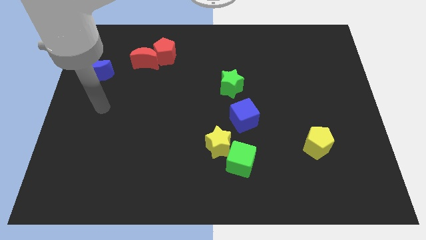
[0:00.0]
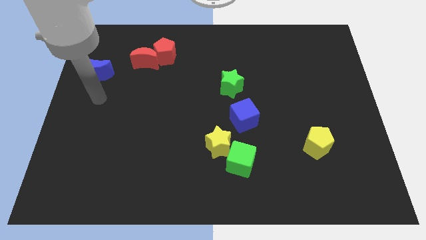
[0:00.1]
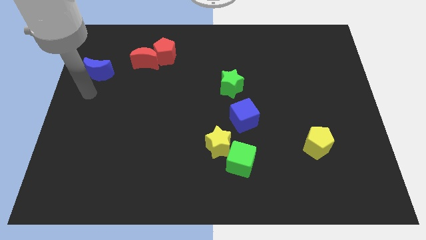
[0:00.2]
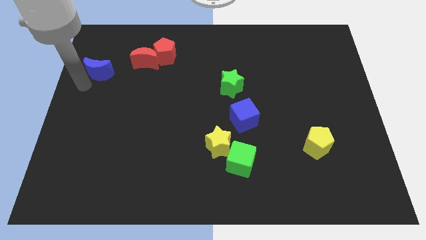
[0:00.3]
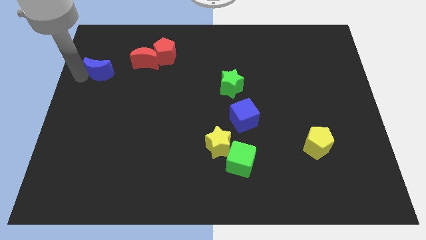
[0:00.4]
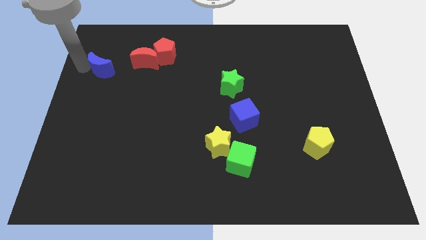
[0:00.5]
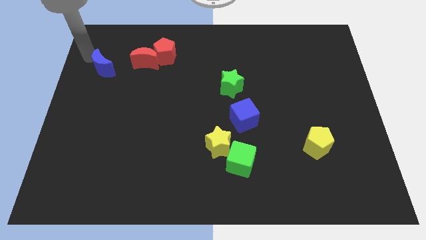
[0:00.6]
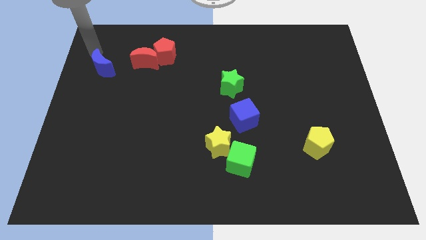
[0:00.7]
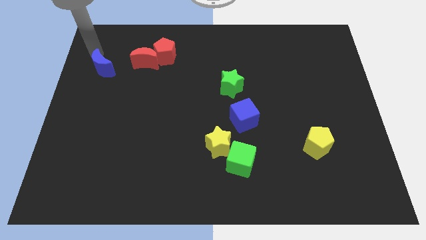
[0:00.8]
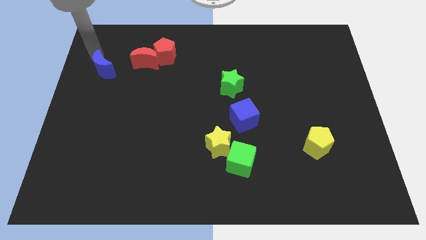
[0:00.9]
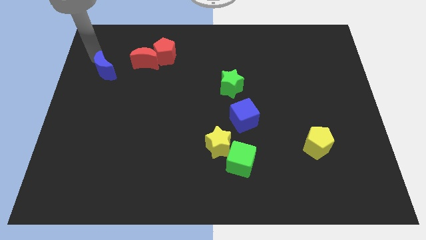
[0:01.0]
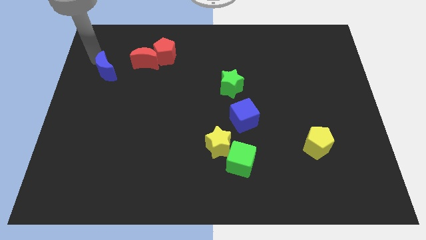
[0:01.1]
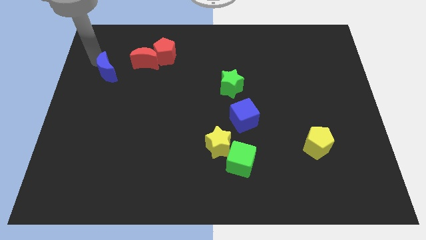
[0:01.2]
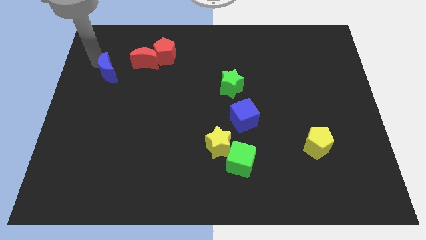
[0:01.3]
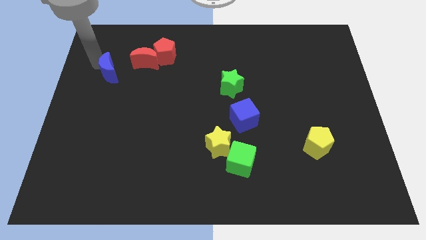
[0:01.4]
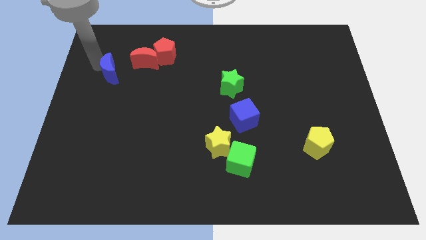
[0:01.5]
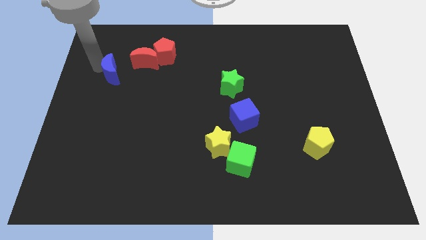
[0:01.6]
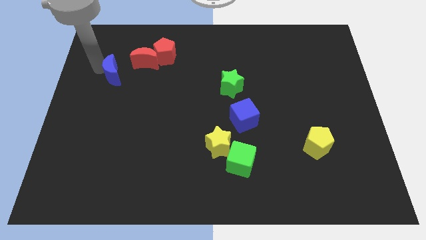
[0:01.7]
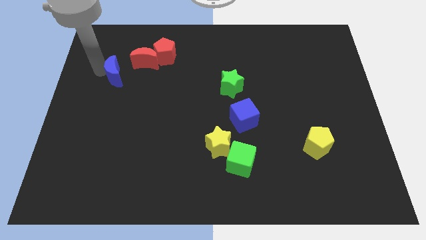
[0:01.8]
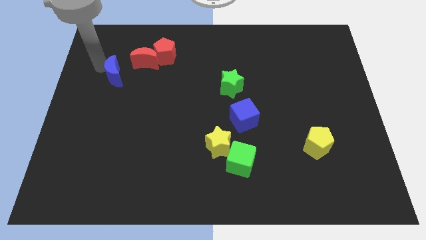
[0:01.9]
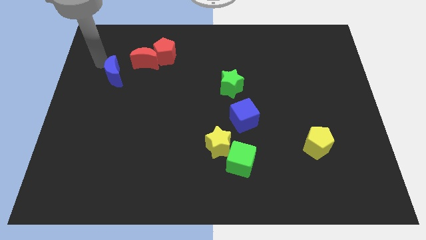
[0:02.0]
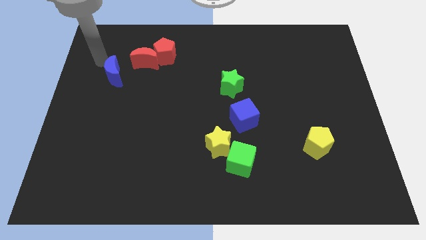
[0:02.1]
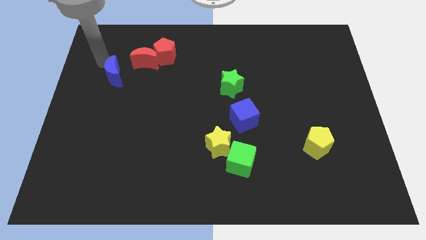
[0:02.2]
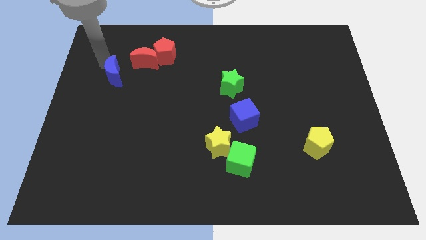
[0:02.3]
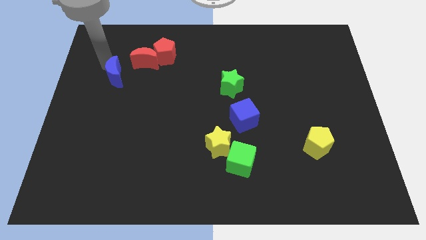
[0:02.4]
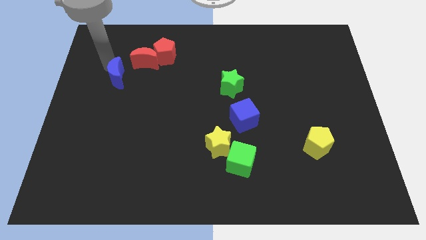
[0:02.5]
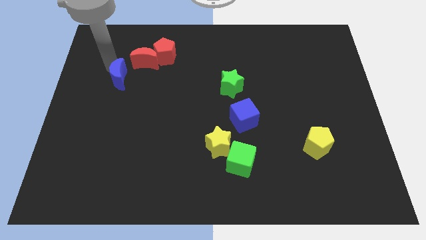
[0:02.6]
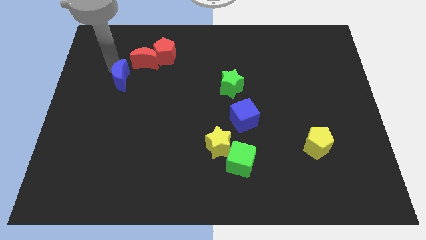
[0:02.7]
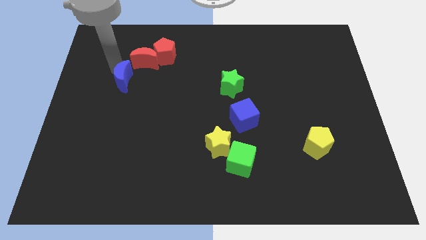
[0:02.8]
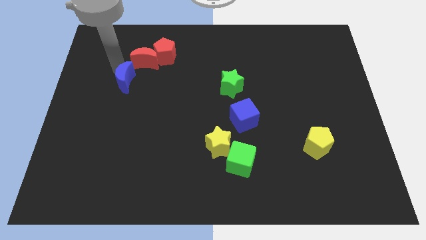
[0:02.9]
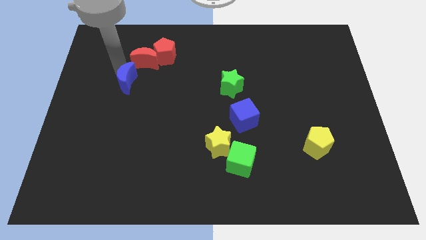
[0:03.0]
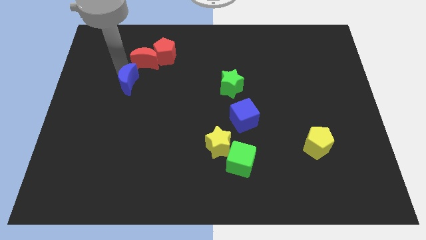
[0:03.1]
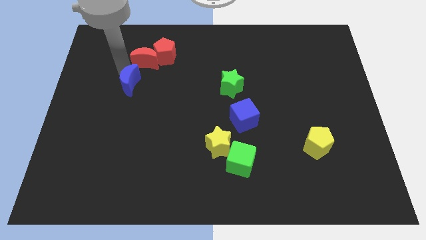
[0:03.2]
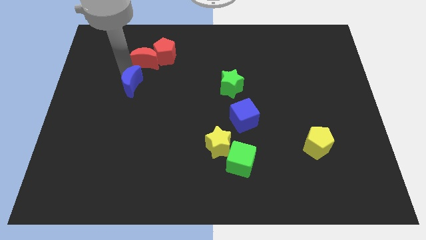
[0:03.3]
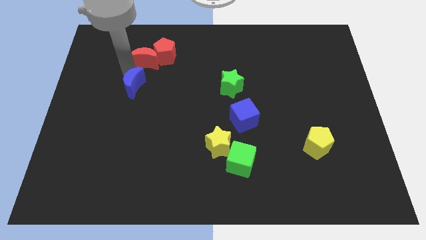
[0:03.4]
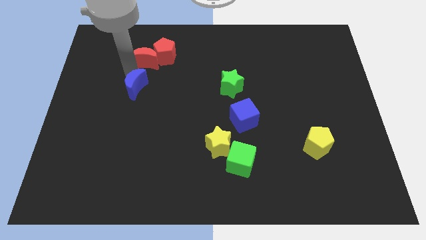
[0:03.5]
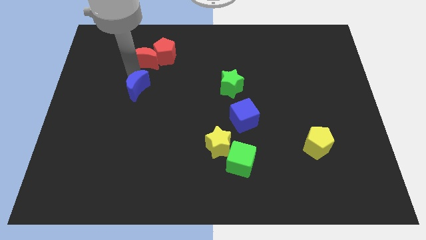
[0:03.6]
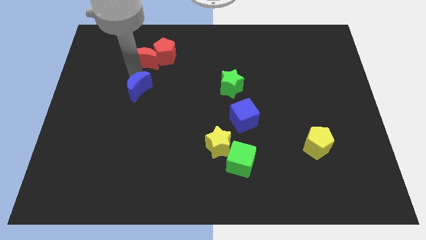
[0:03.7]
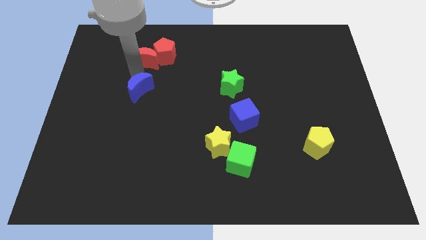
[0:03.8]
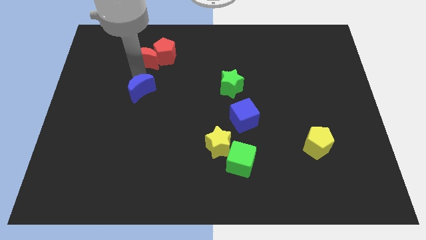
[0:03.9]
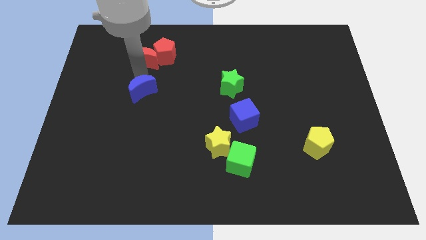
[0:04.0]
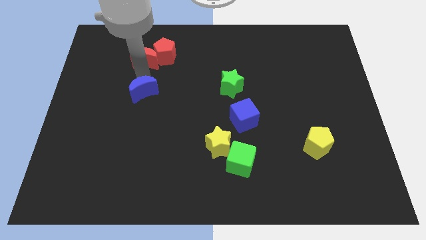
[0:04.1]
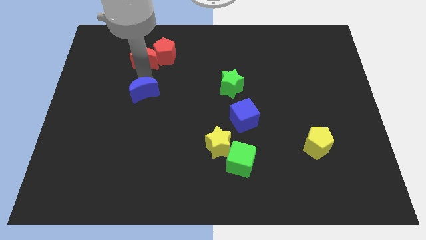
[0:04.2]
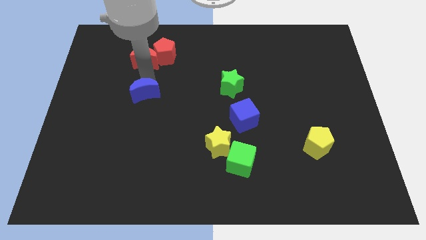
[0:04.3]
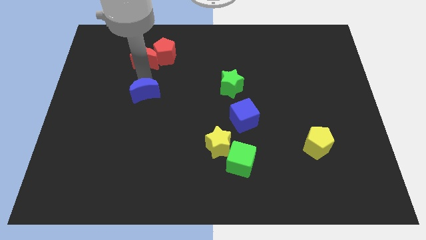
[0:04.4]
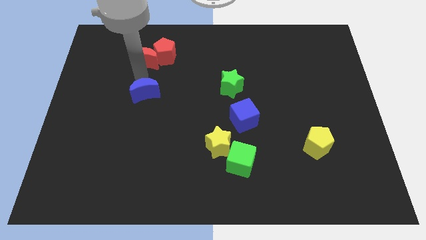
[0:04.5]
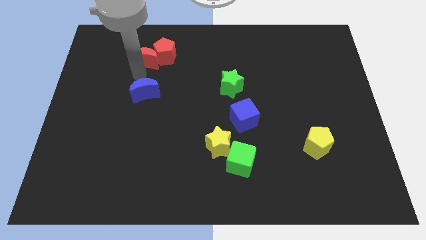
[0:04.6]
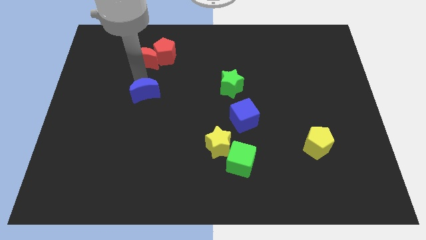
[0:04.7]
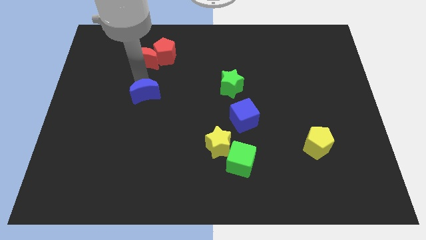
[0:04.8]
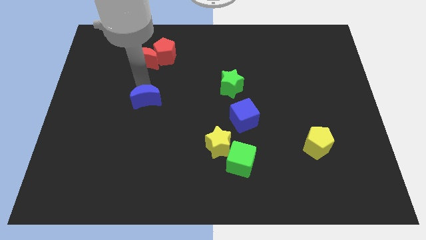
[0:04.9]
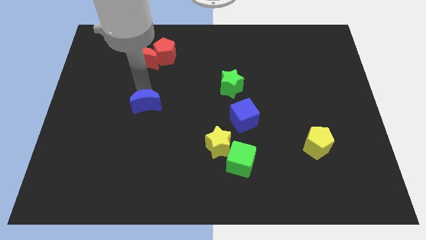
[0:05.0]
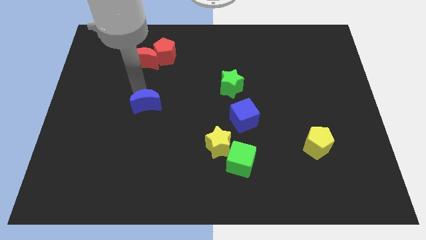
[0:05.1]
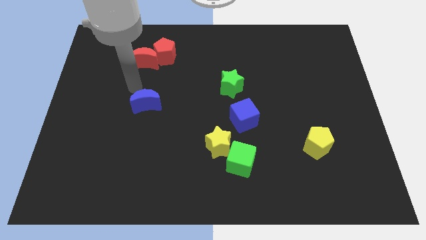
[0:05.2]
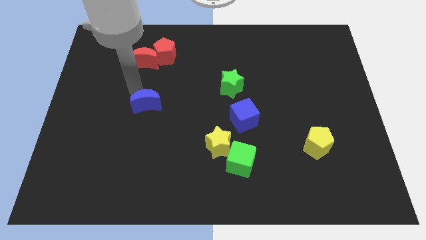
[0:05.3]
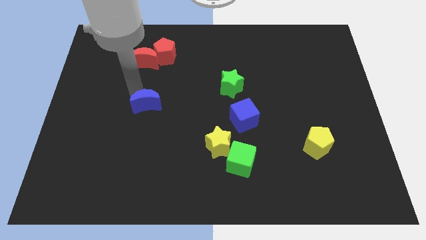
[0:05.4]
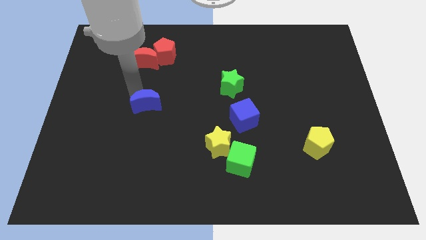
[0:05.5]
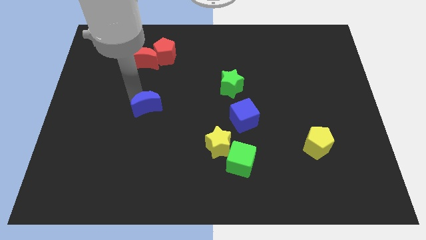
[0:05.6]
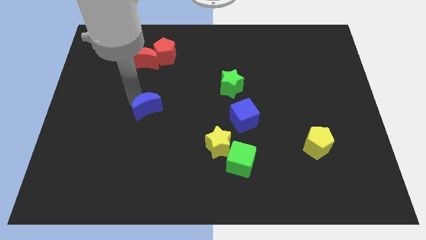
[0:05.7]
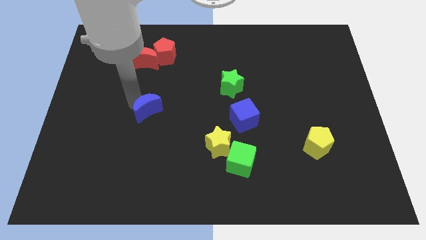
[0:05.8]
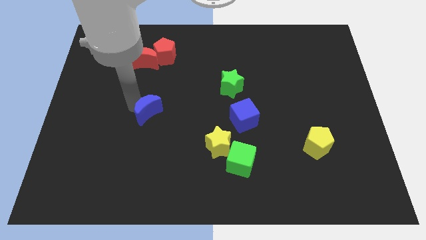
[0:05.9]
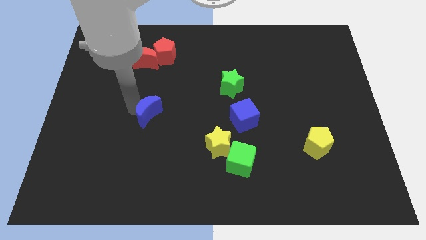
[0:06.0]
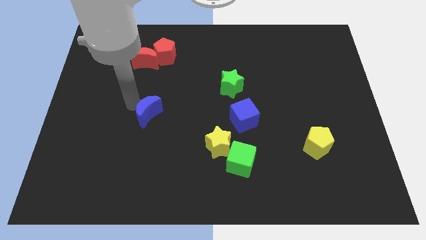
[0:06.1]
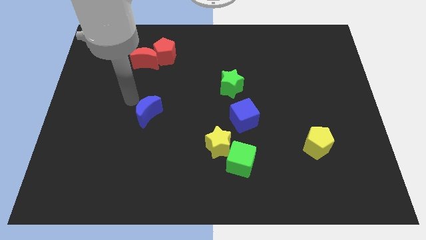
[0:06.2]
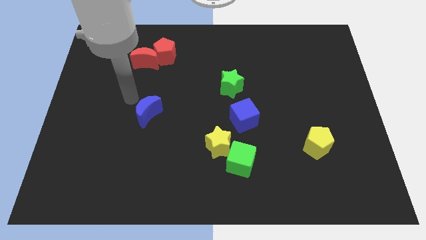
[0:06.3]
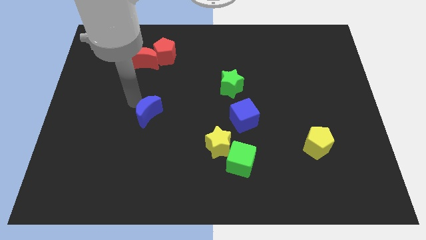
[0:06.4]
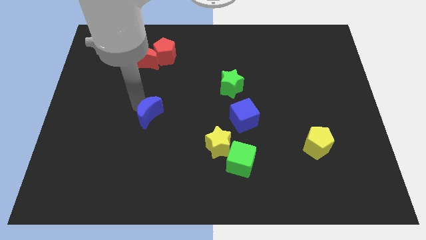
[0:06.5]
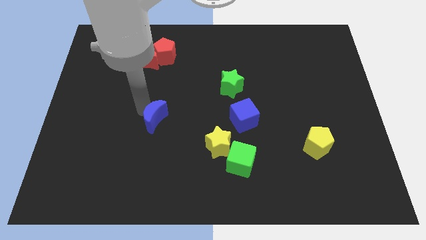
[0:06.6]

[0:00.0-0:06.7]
slide the blue moon downwards and to the right

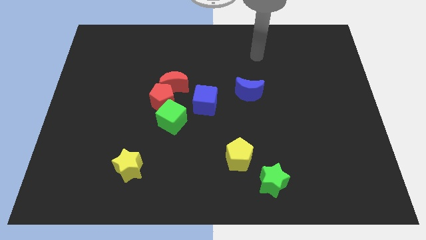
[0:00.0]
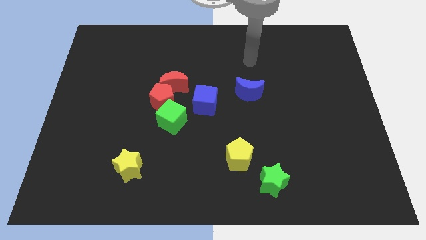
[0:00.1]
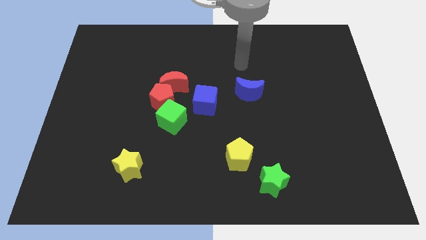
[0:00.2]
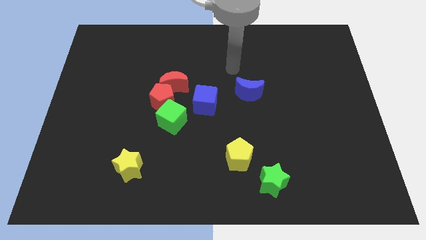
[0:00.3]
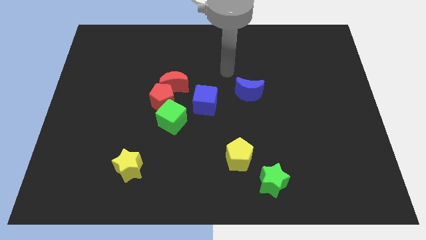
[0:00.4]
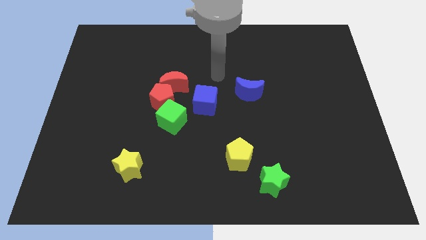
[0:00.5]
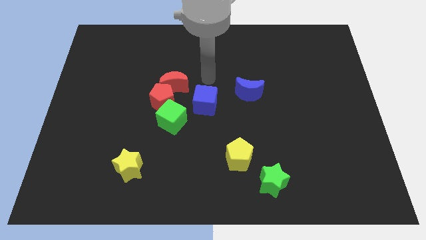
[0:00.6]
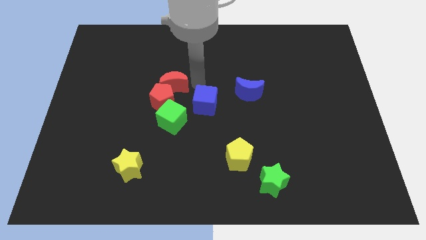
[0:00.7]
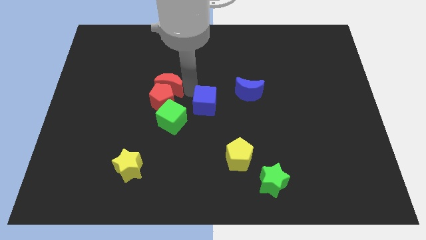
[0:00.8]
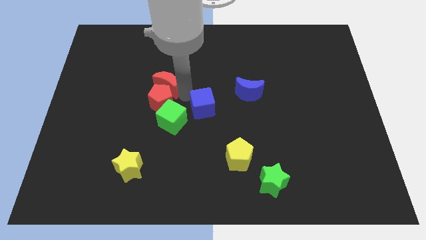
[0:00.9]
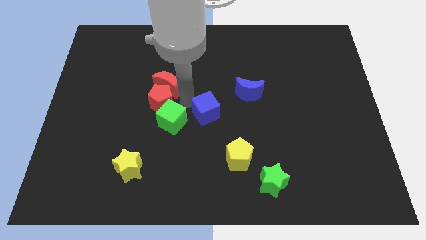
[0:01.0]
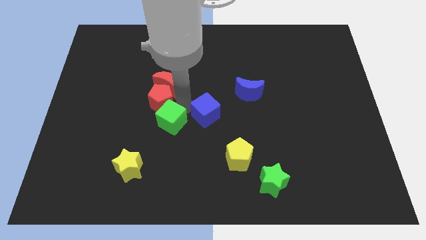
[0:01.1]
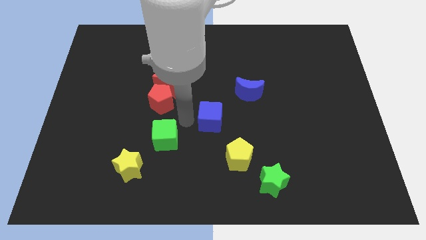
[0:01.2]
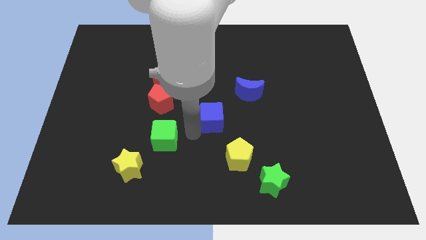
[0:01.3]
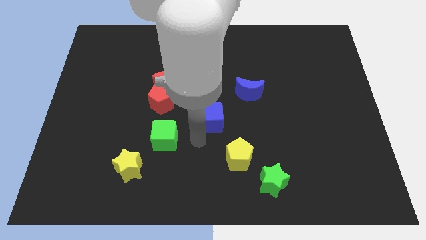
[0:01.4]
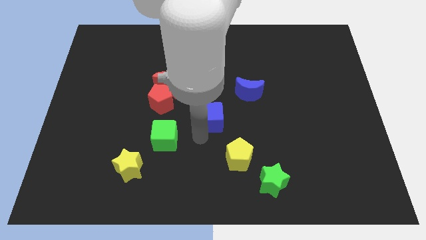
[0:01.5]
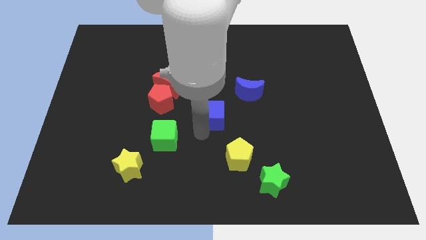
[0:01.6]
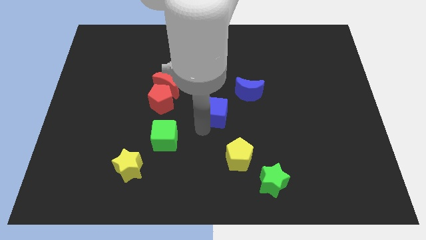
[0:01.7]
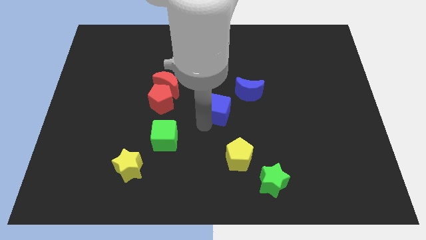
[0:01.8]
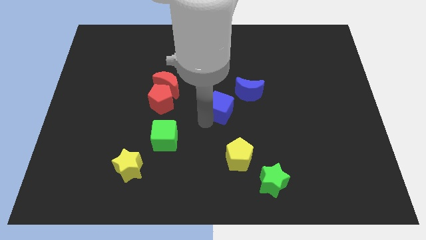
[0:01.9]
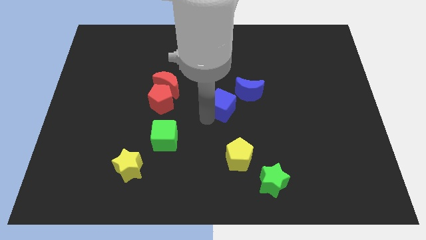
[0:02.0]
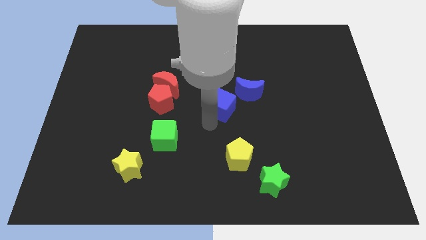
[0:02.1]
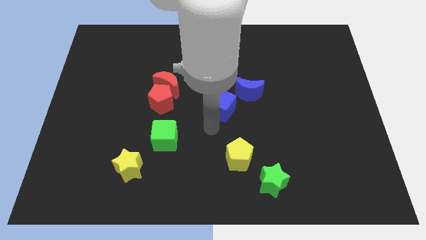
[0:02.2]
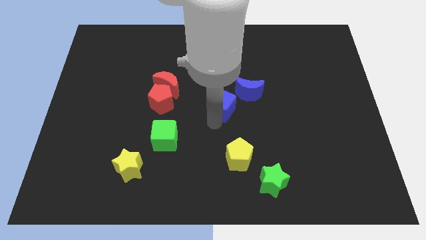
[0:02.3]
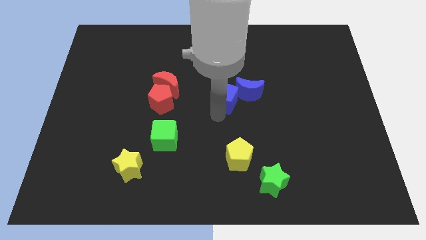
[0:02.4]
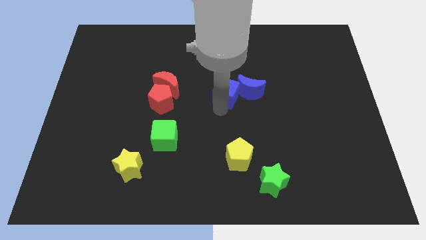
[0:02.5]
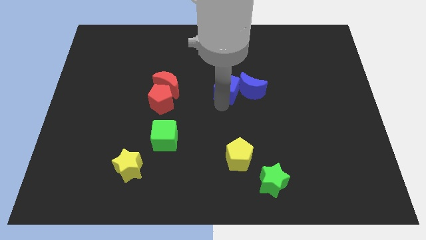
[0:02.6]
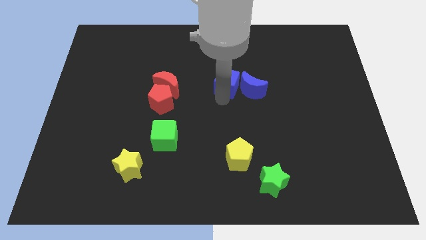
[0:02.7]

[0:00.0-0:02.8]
slightly move the blue cube up and to the right diagonally
